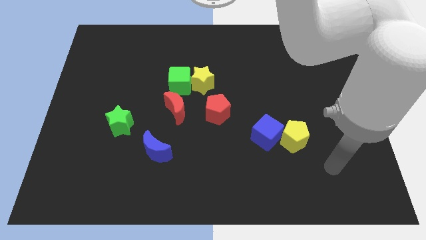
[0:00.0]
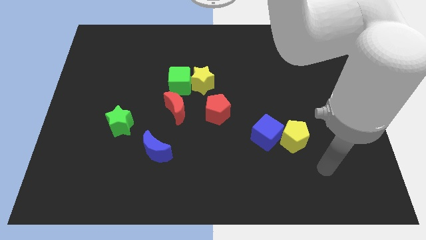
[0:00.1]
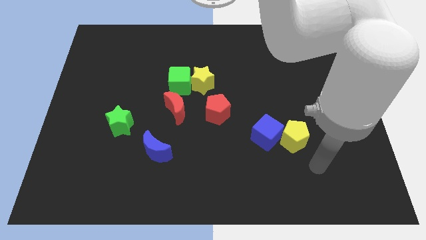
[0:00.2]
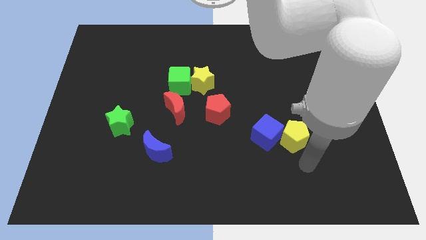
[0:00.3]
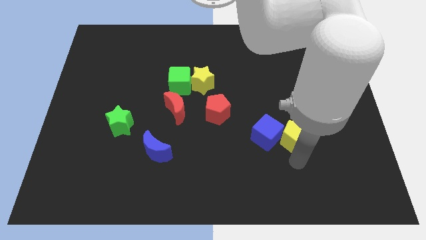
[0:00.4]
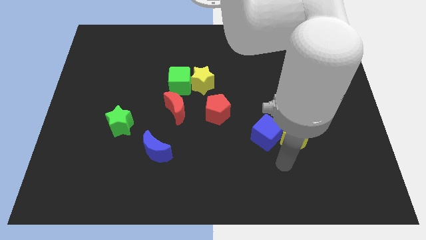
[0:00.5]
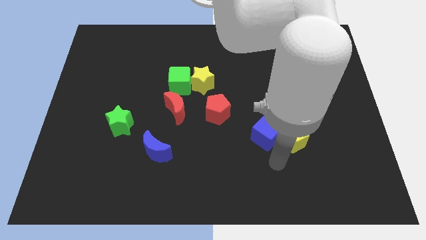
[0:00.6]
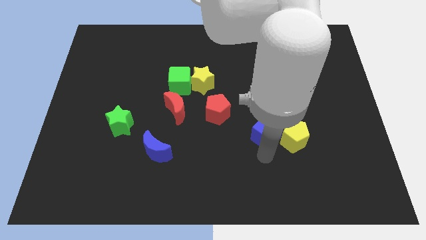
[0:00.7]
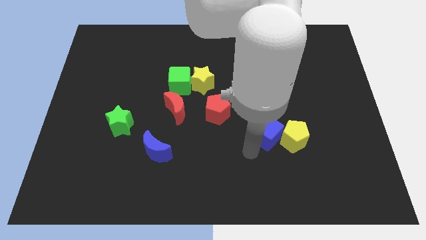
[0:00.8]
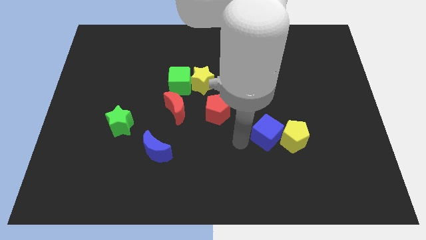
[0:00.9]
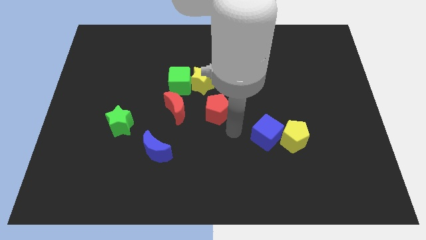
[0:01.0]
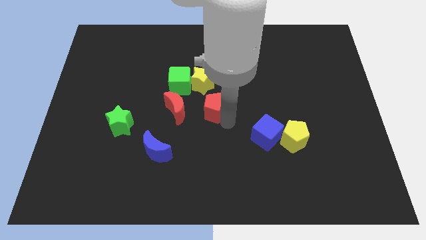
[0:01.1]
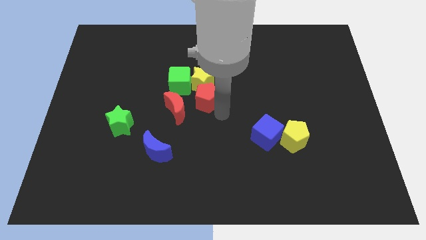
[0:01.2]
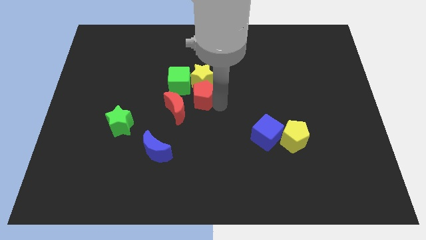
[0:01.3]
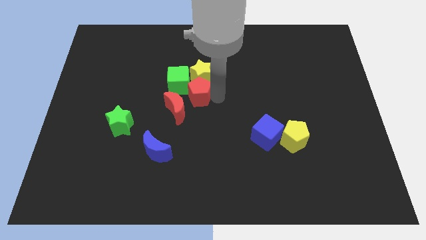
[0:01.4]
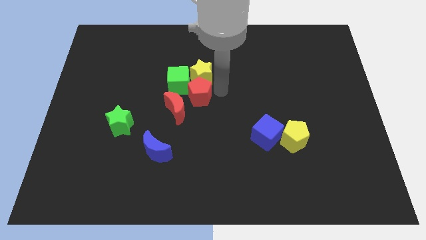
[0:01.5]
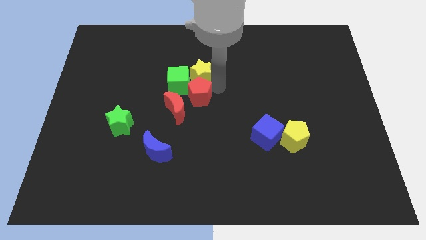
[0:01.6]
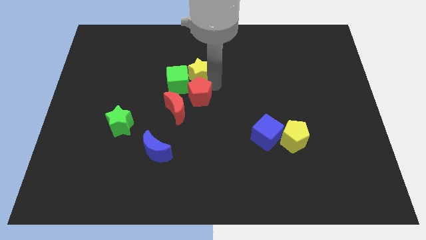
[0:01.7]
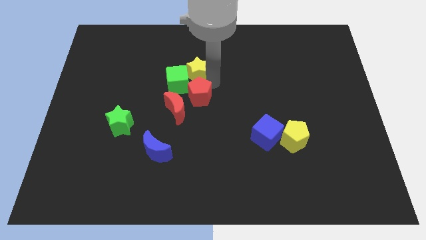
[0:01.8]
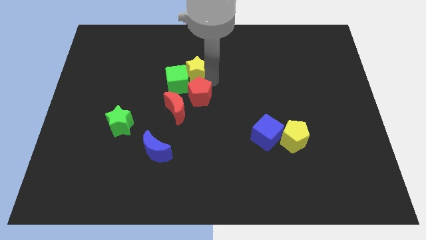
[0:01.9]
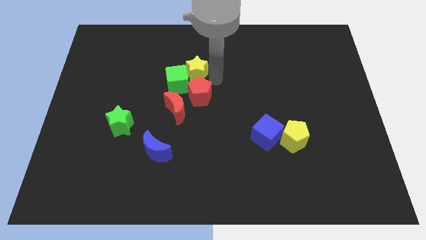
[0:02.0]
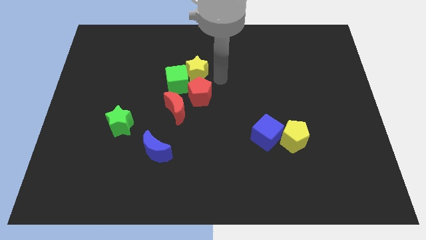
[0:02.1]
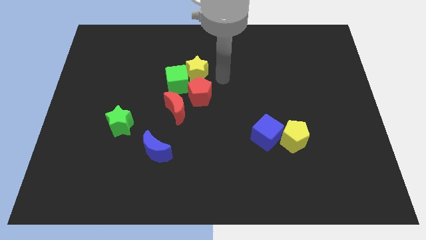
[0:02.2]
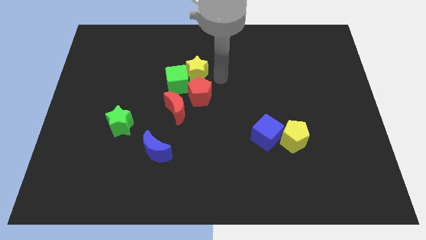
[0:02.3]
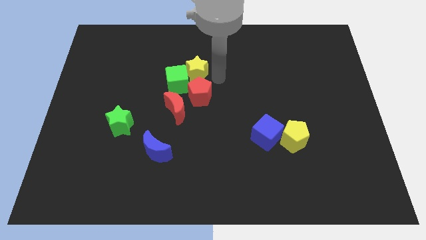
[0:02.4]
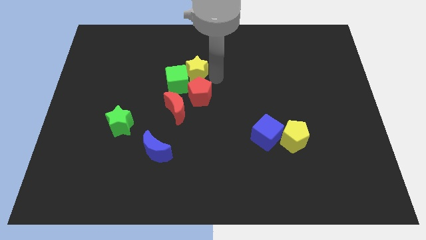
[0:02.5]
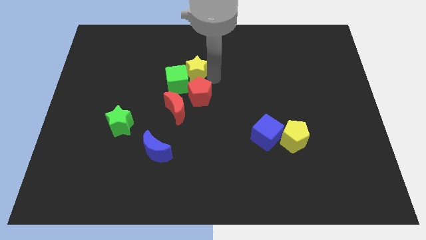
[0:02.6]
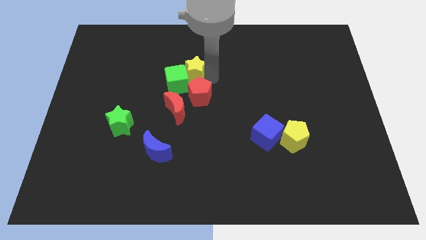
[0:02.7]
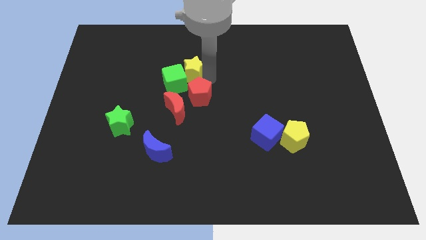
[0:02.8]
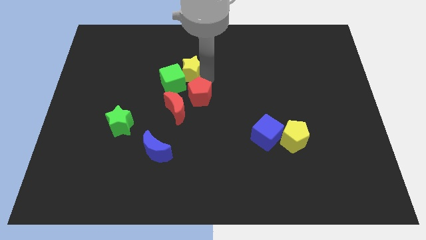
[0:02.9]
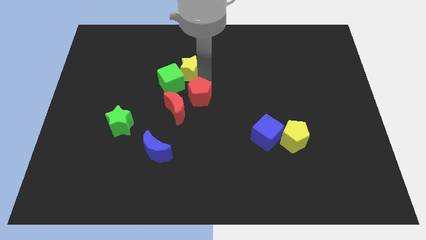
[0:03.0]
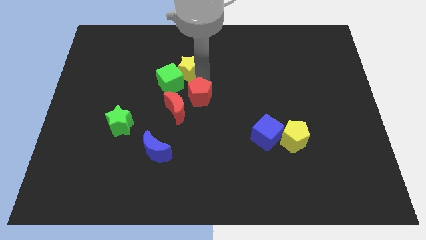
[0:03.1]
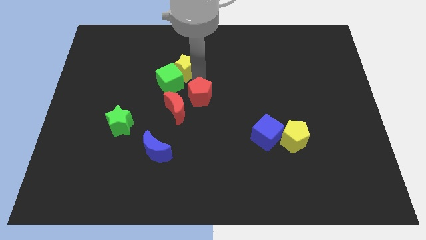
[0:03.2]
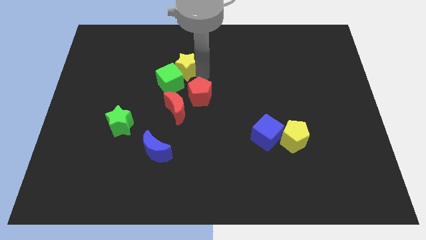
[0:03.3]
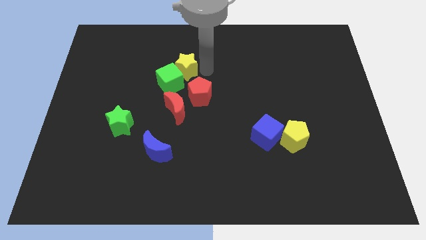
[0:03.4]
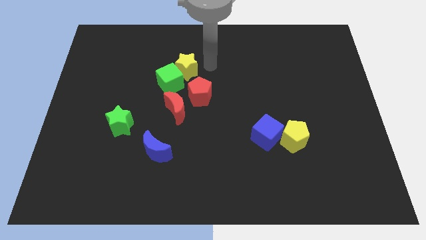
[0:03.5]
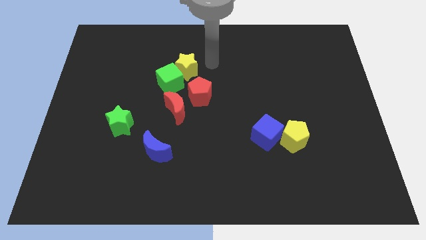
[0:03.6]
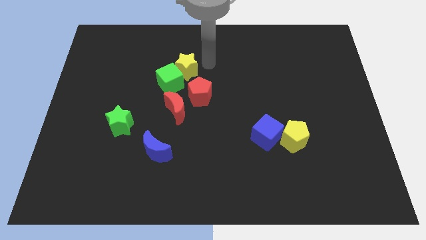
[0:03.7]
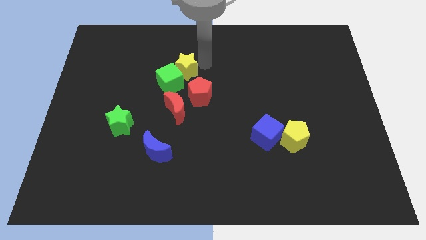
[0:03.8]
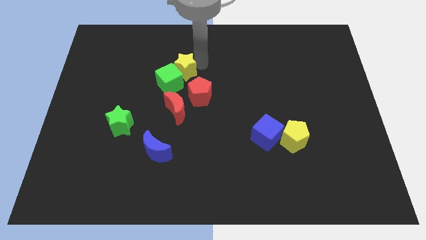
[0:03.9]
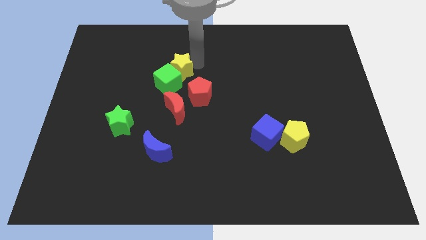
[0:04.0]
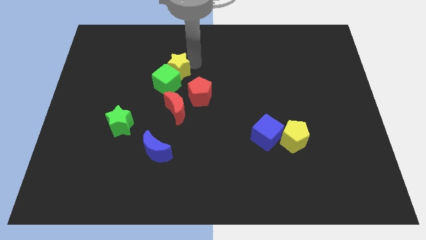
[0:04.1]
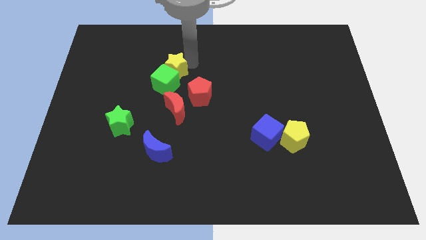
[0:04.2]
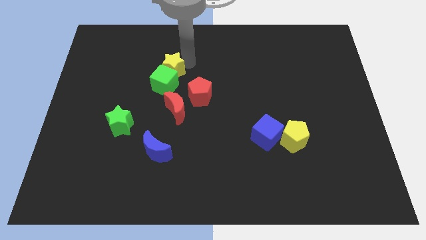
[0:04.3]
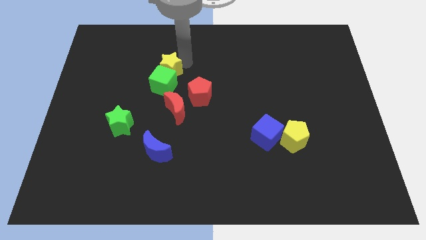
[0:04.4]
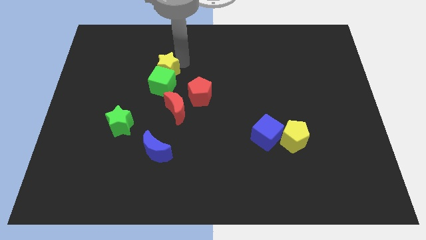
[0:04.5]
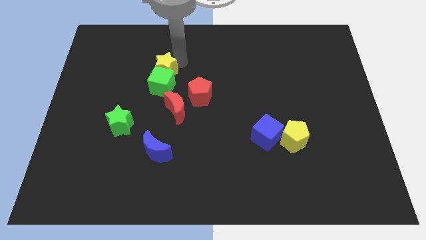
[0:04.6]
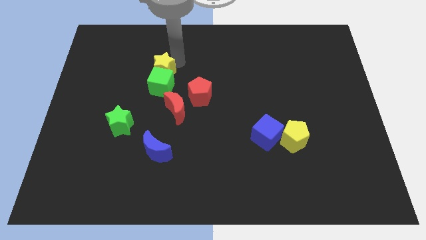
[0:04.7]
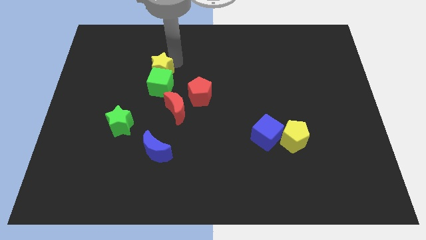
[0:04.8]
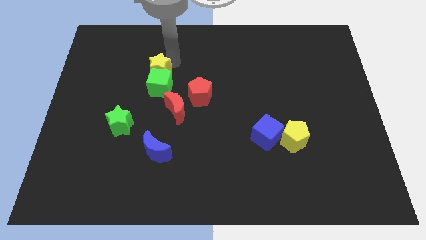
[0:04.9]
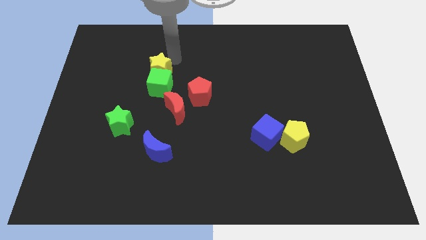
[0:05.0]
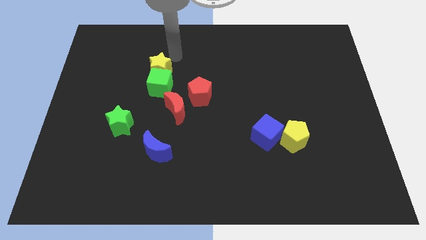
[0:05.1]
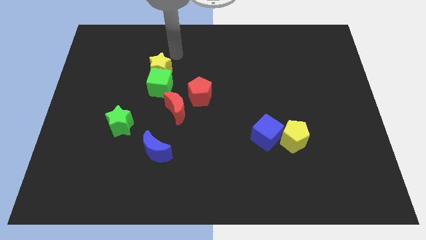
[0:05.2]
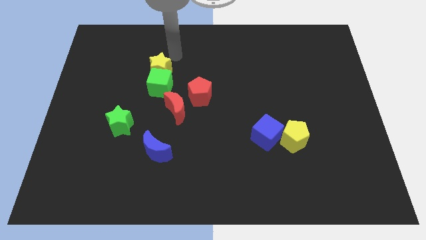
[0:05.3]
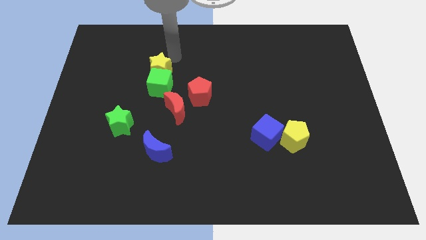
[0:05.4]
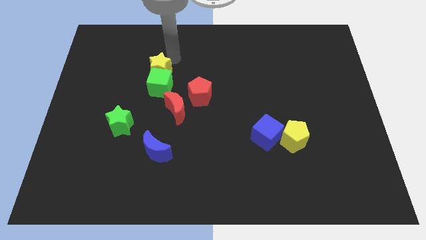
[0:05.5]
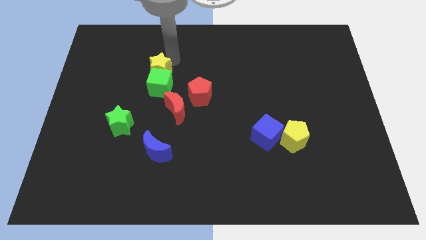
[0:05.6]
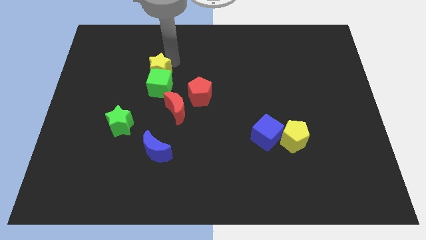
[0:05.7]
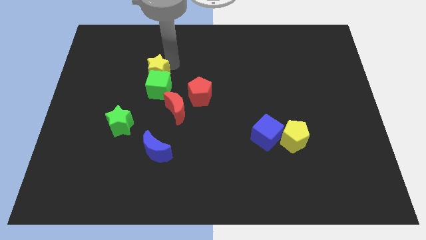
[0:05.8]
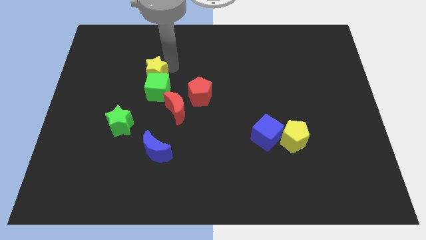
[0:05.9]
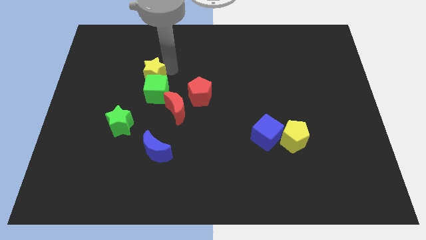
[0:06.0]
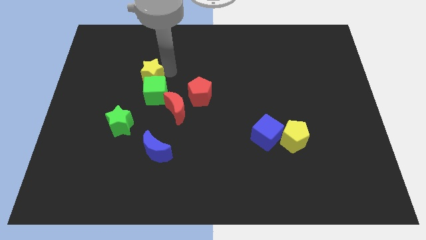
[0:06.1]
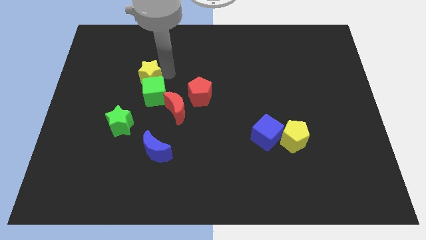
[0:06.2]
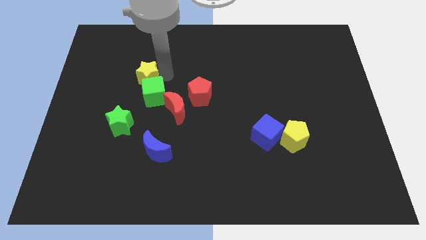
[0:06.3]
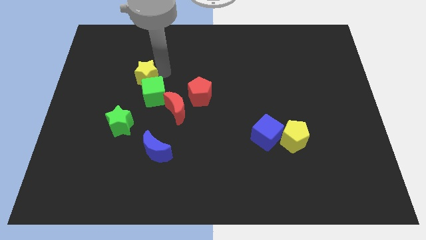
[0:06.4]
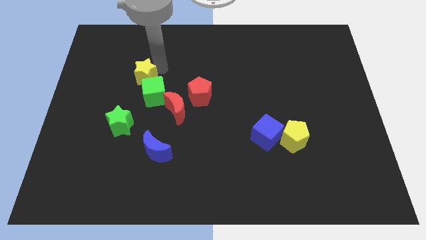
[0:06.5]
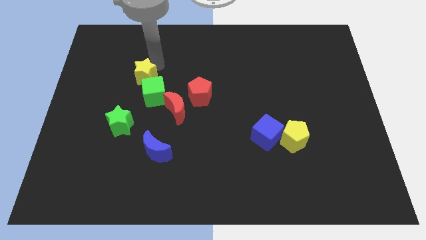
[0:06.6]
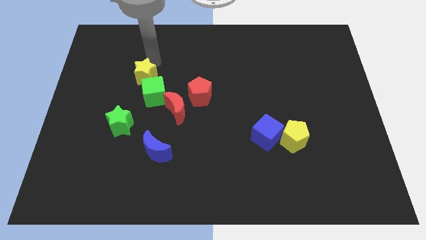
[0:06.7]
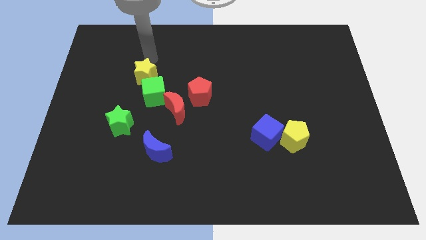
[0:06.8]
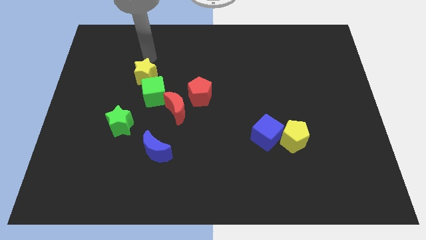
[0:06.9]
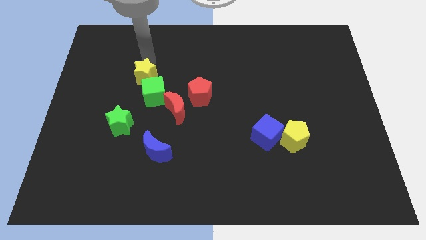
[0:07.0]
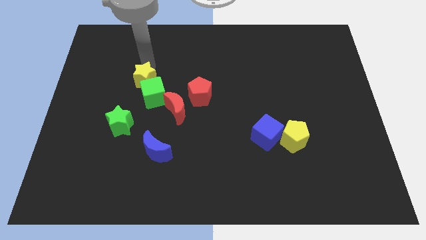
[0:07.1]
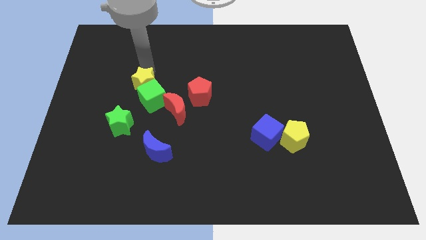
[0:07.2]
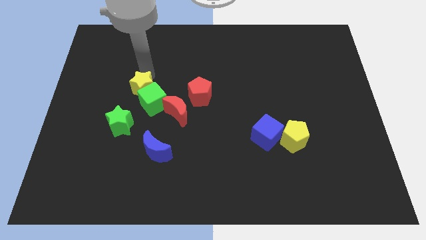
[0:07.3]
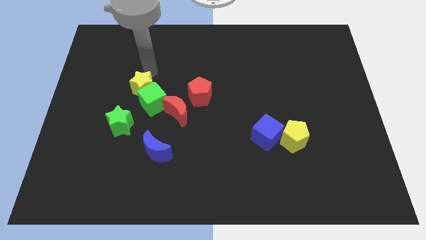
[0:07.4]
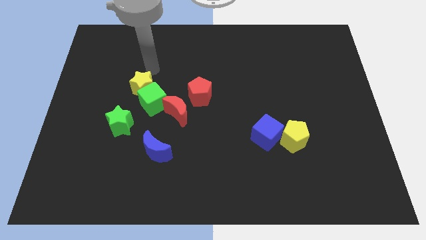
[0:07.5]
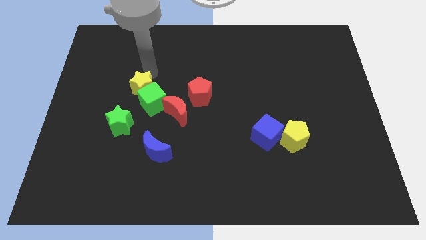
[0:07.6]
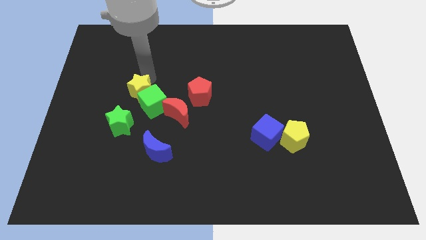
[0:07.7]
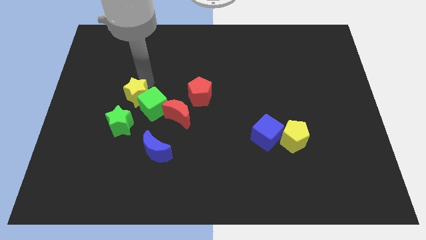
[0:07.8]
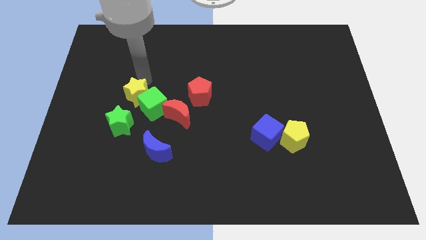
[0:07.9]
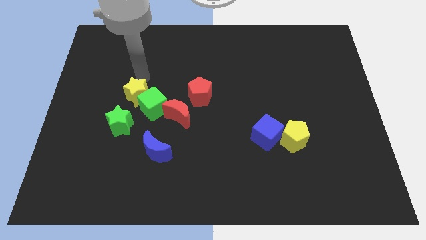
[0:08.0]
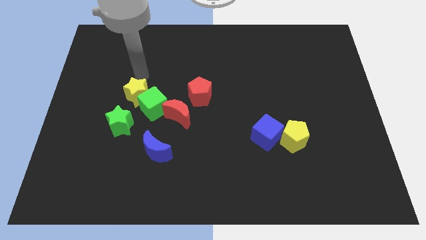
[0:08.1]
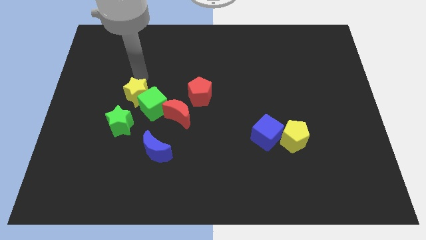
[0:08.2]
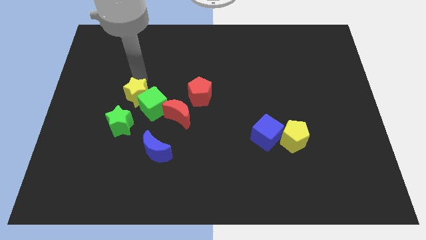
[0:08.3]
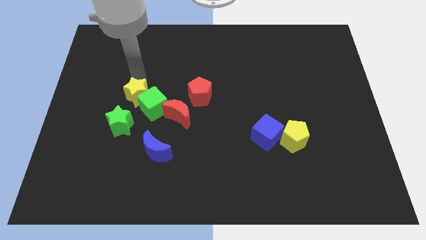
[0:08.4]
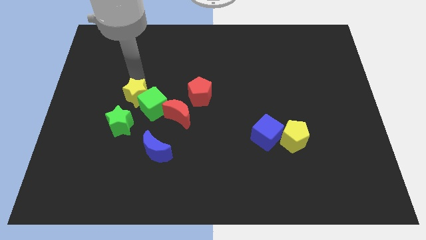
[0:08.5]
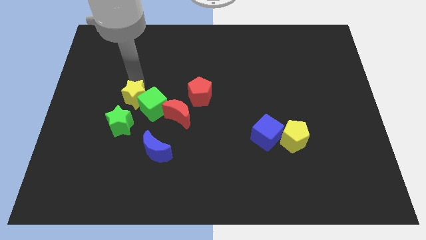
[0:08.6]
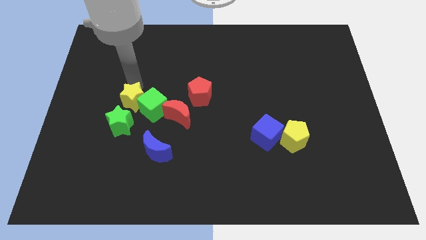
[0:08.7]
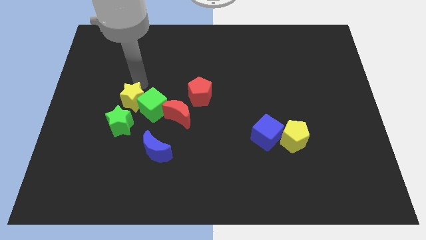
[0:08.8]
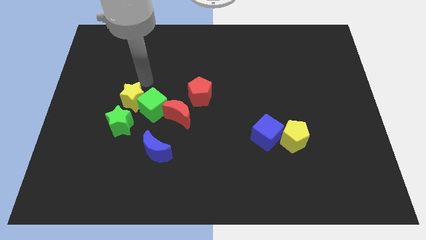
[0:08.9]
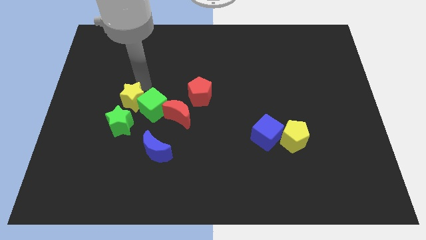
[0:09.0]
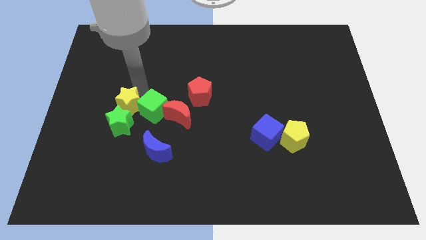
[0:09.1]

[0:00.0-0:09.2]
move the yellow star next to the green star
